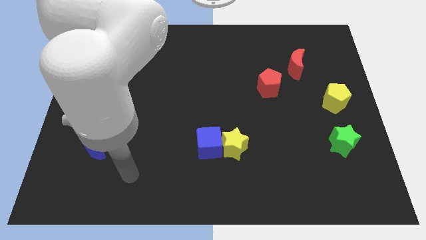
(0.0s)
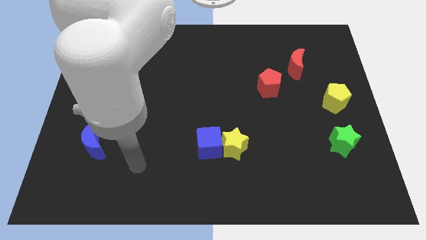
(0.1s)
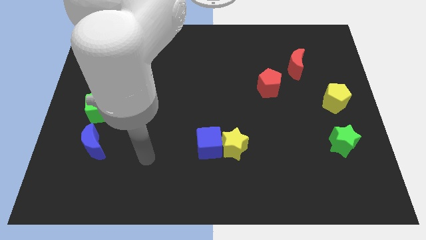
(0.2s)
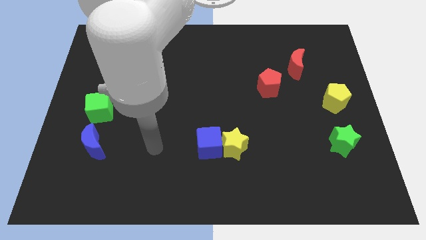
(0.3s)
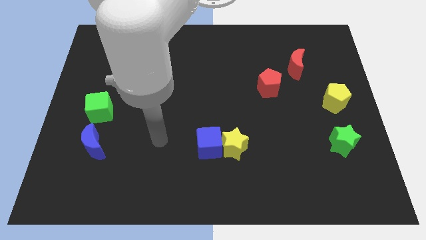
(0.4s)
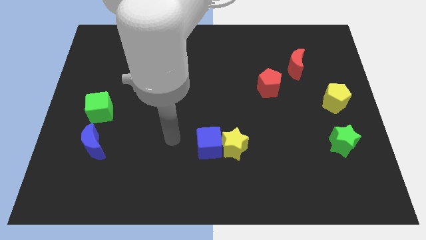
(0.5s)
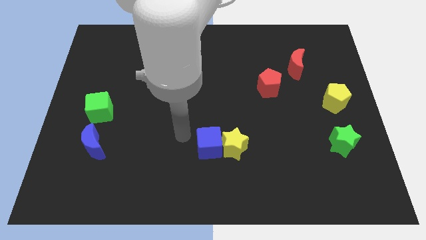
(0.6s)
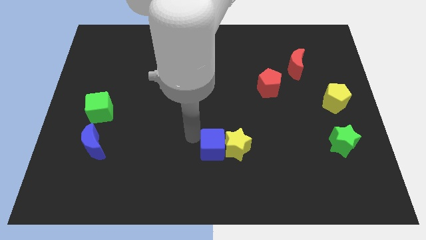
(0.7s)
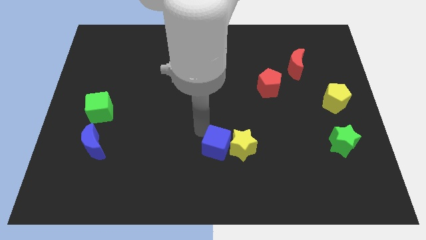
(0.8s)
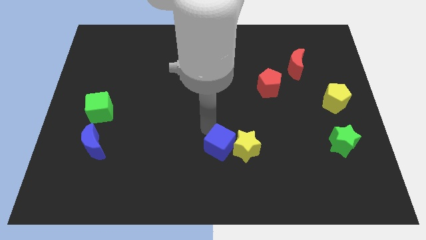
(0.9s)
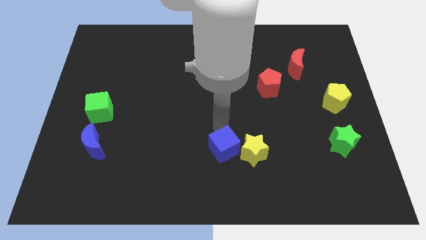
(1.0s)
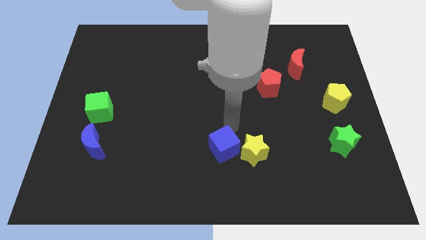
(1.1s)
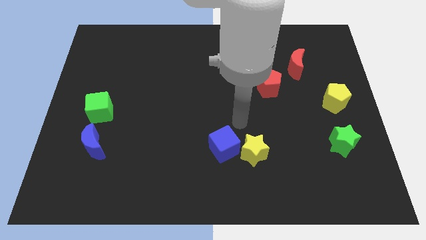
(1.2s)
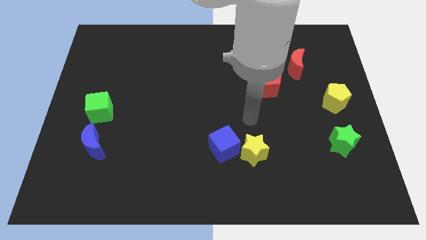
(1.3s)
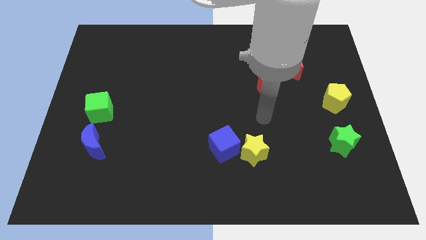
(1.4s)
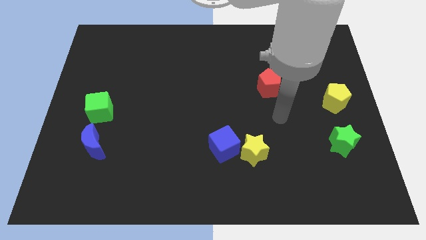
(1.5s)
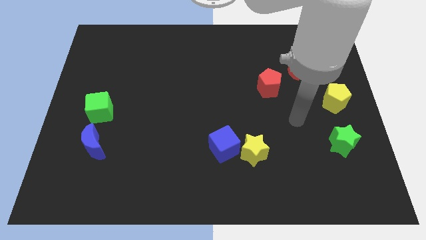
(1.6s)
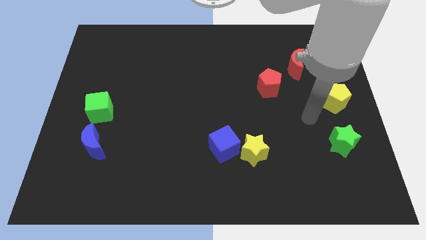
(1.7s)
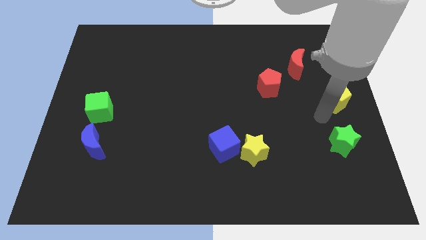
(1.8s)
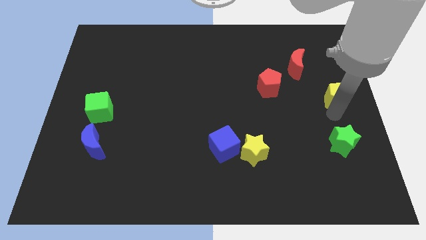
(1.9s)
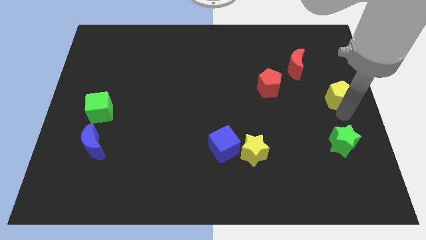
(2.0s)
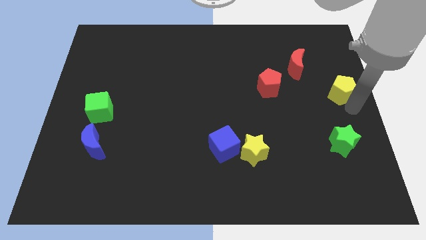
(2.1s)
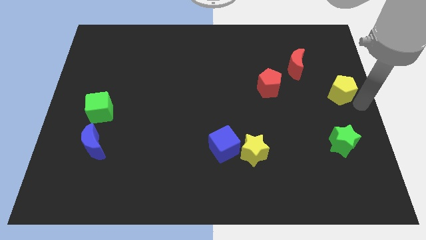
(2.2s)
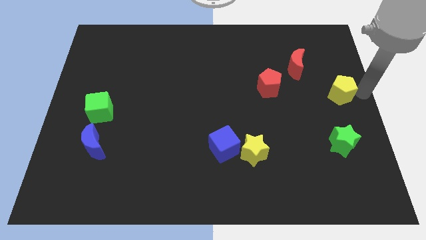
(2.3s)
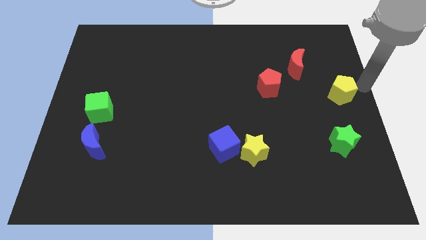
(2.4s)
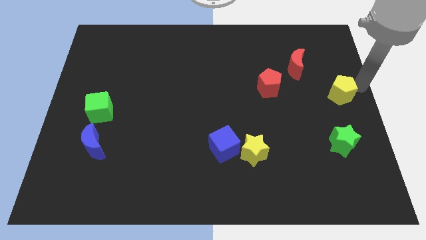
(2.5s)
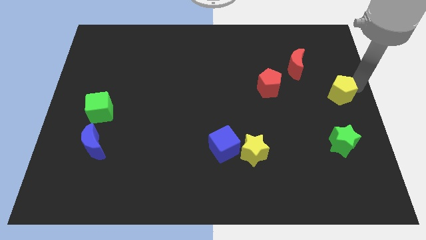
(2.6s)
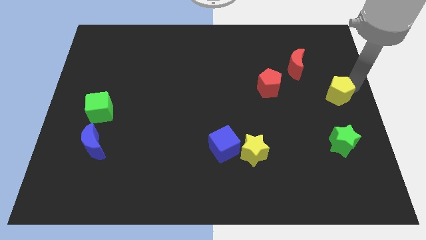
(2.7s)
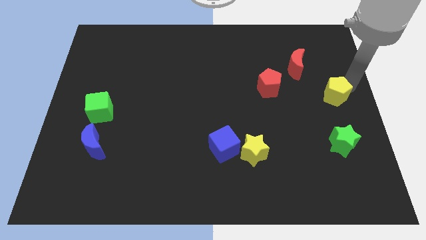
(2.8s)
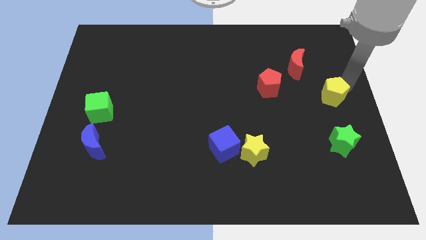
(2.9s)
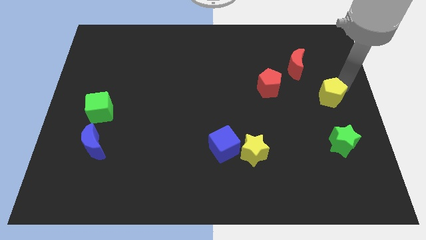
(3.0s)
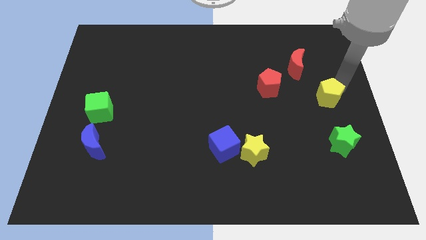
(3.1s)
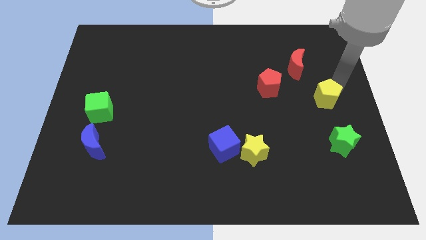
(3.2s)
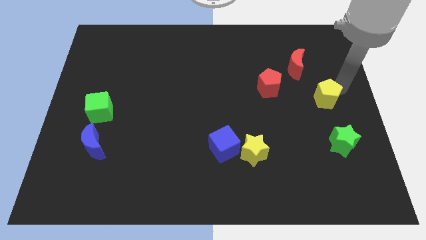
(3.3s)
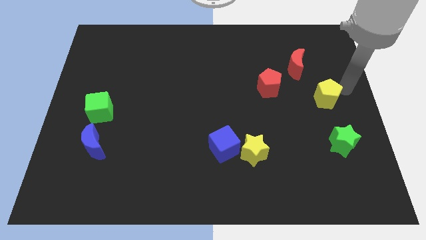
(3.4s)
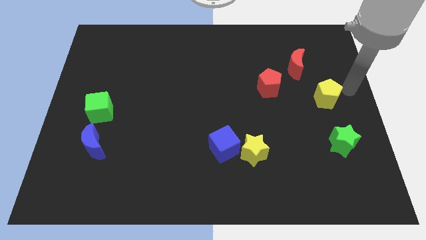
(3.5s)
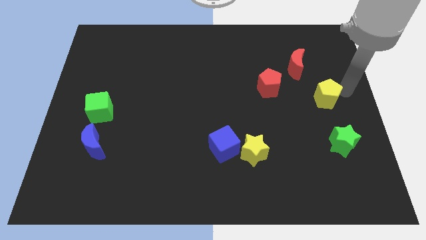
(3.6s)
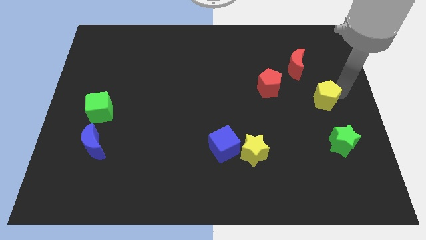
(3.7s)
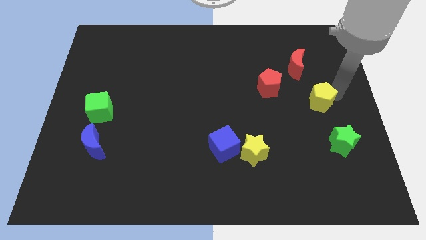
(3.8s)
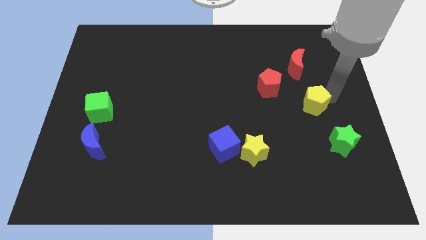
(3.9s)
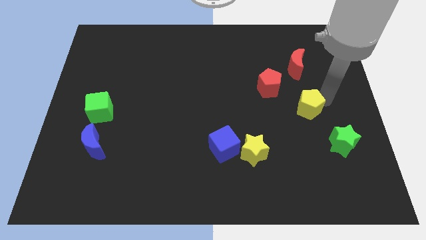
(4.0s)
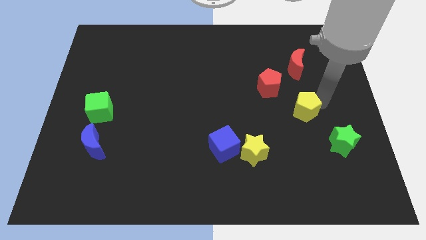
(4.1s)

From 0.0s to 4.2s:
slide the yellow pentagon left a bit

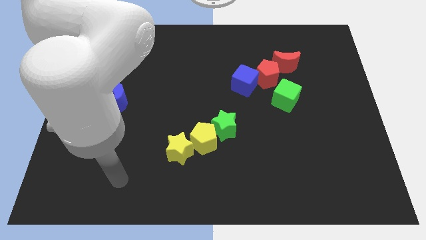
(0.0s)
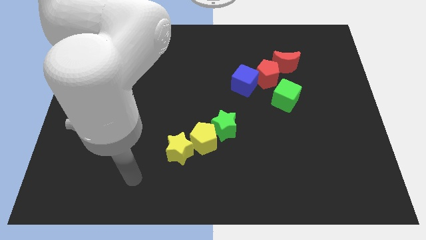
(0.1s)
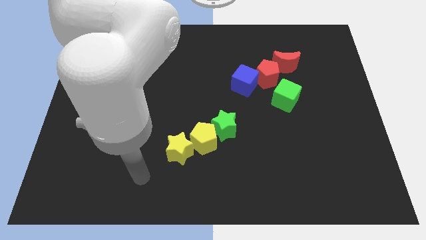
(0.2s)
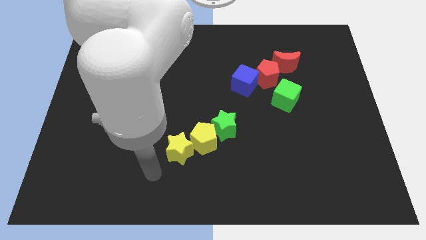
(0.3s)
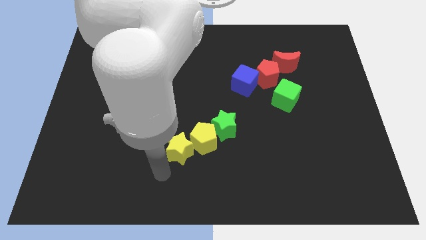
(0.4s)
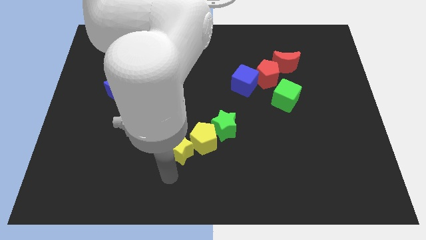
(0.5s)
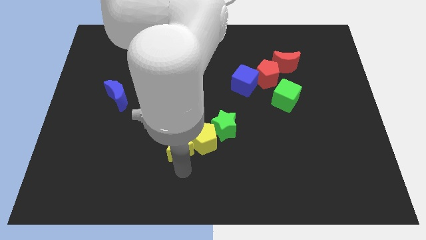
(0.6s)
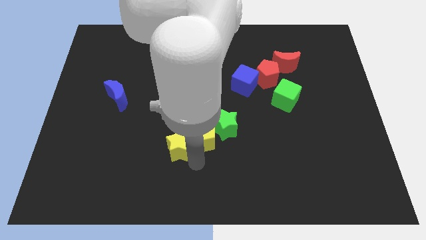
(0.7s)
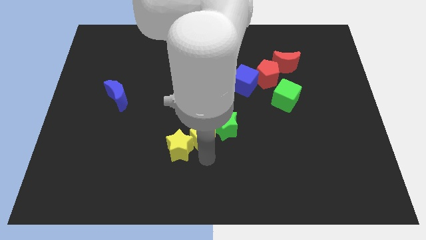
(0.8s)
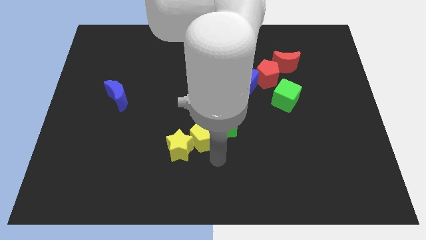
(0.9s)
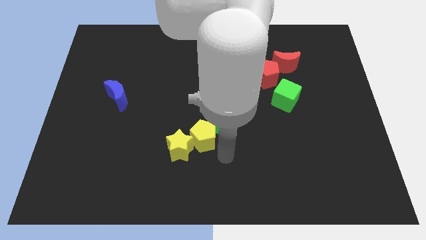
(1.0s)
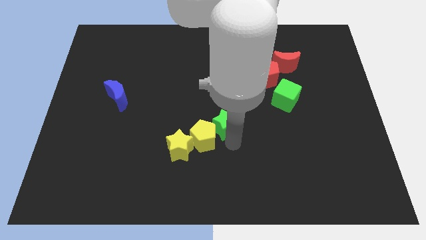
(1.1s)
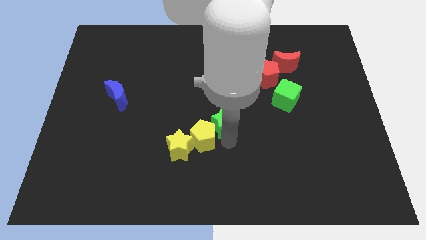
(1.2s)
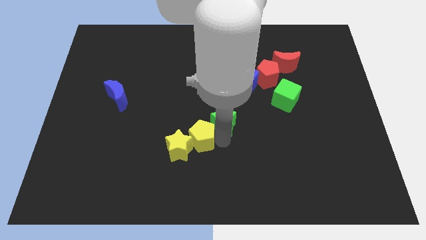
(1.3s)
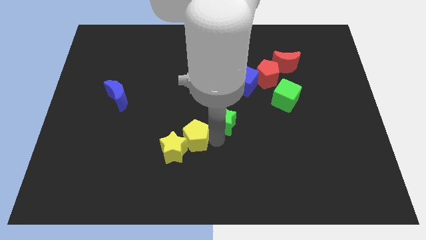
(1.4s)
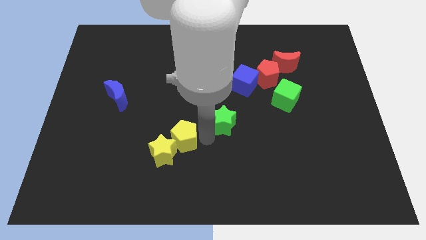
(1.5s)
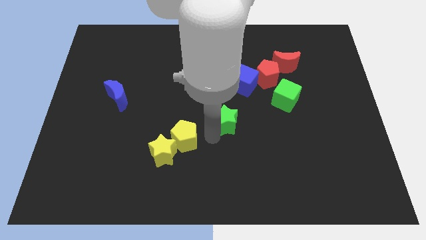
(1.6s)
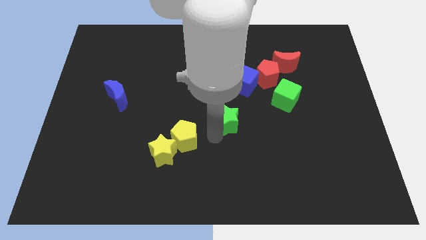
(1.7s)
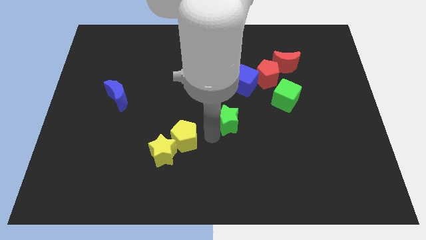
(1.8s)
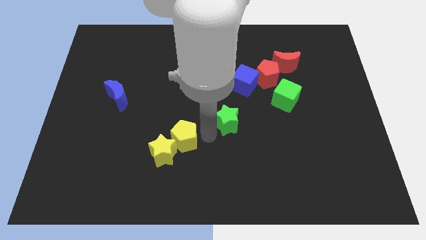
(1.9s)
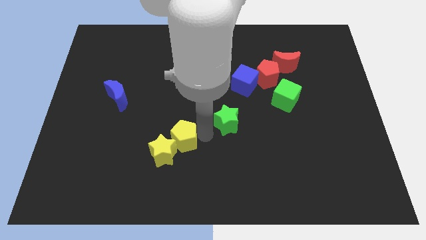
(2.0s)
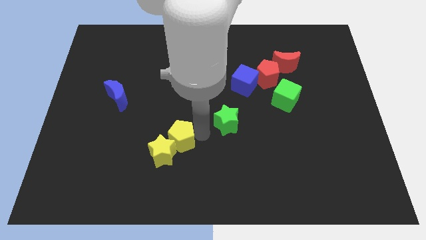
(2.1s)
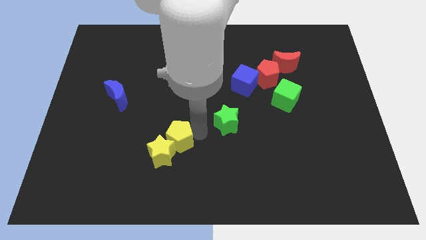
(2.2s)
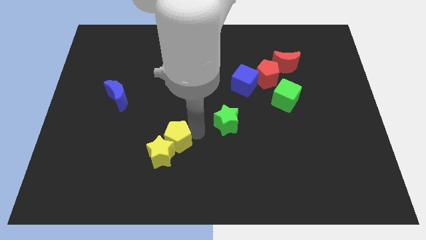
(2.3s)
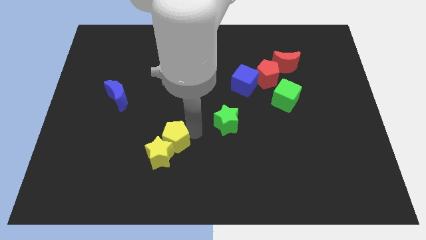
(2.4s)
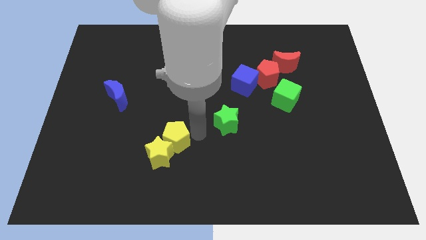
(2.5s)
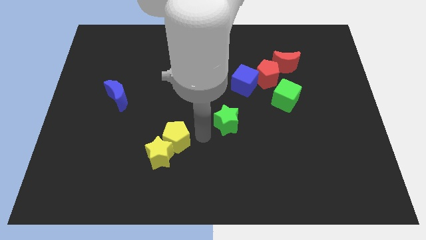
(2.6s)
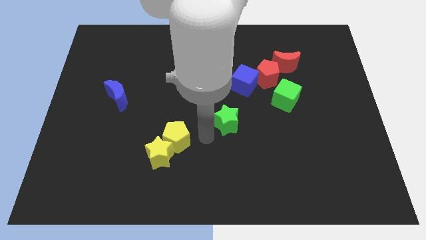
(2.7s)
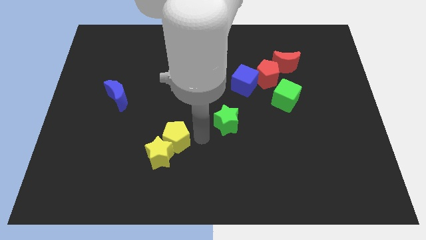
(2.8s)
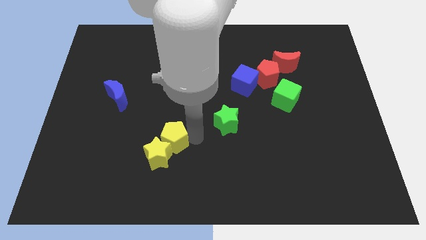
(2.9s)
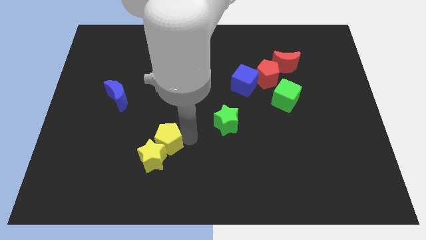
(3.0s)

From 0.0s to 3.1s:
slide the yellow pentagon a little to the left

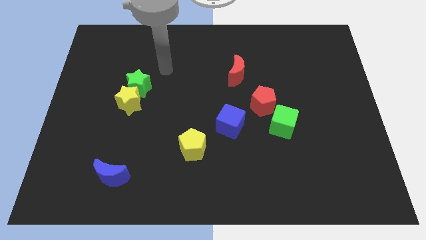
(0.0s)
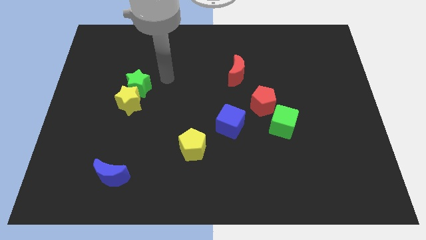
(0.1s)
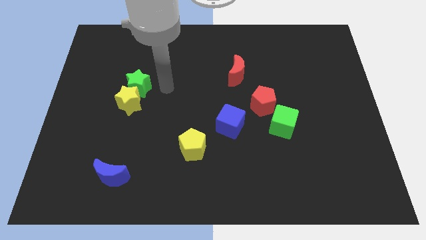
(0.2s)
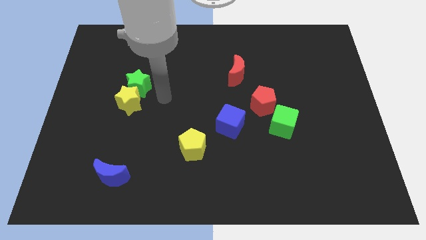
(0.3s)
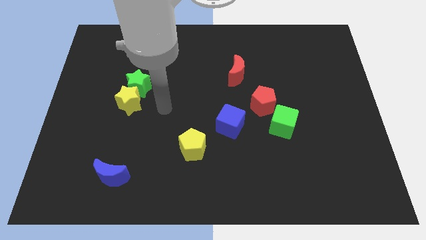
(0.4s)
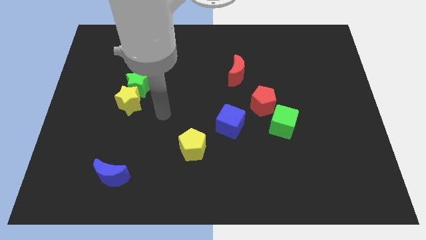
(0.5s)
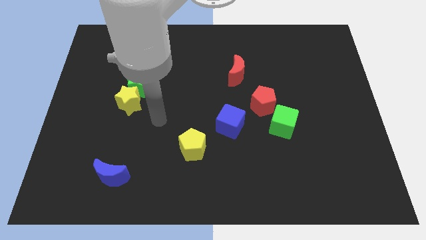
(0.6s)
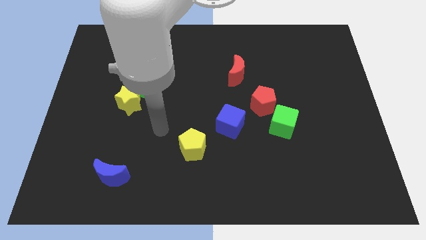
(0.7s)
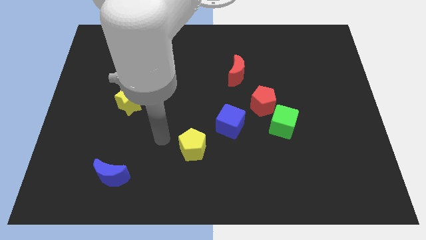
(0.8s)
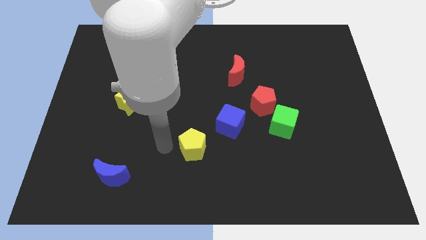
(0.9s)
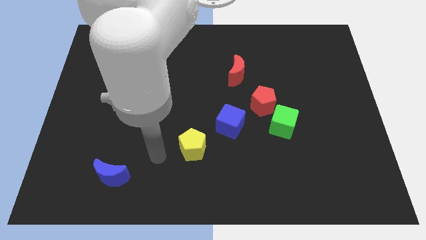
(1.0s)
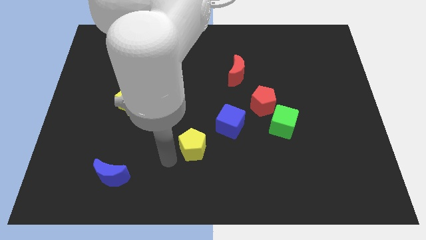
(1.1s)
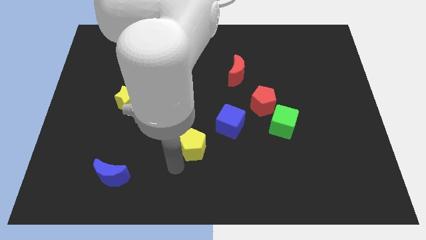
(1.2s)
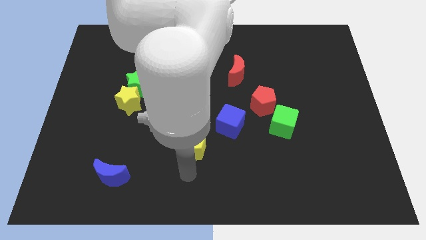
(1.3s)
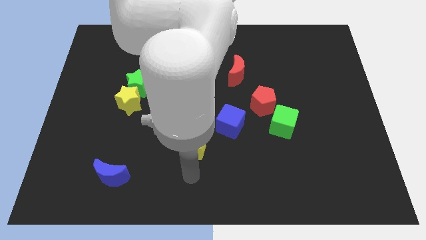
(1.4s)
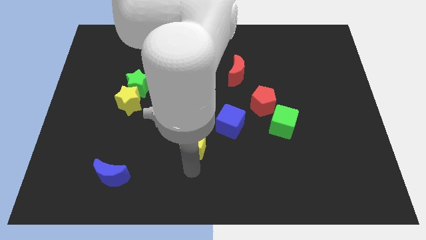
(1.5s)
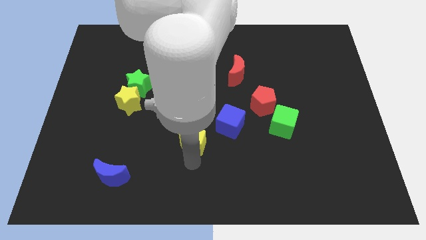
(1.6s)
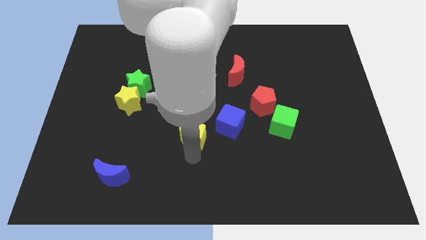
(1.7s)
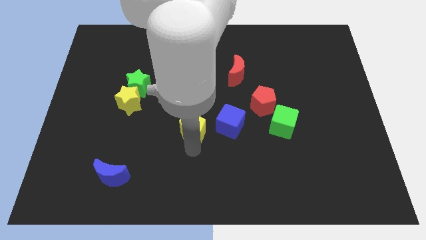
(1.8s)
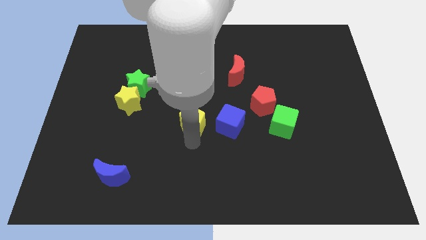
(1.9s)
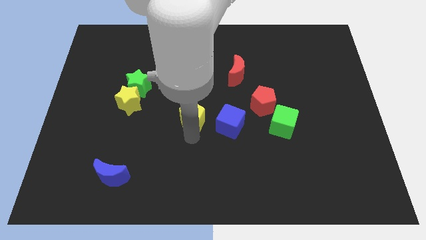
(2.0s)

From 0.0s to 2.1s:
move the yellow pentagon somewhat upwards
